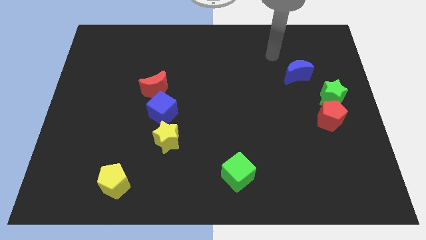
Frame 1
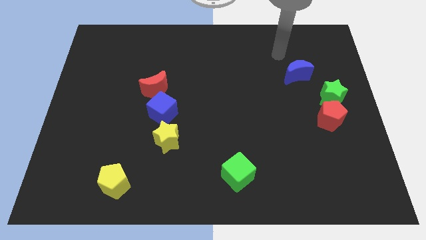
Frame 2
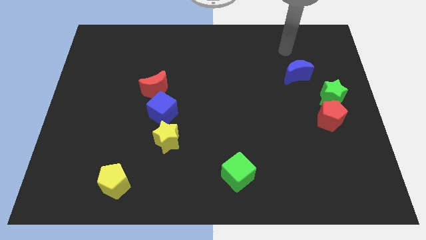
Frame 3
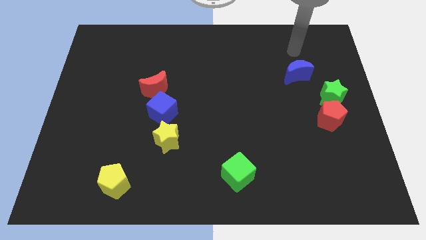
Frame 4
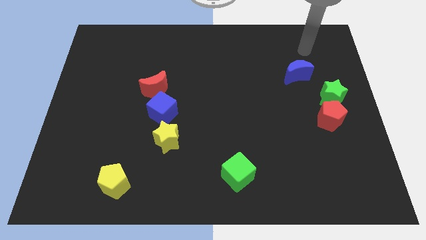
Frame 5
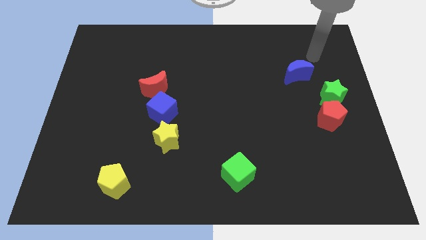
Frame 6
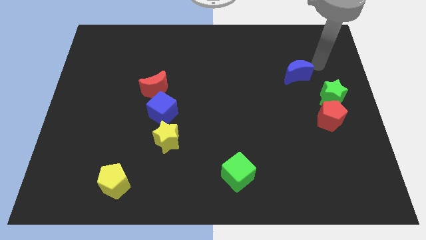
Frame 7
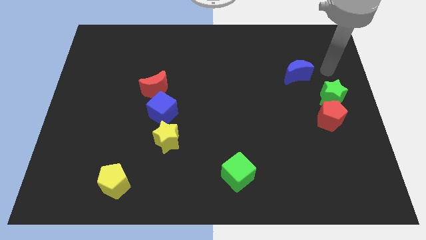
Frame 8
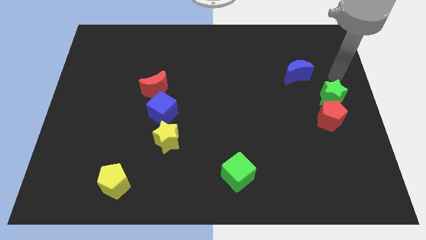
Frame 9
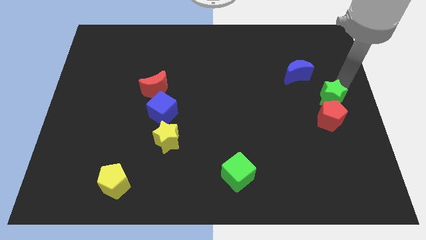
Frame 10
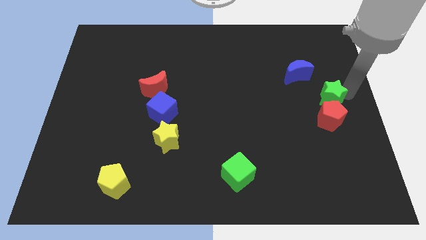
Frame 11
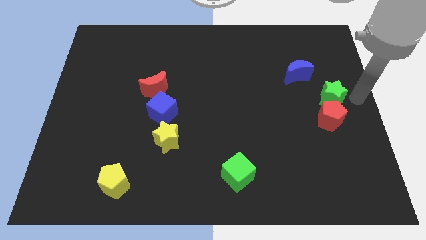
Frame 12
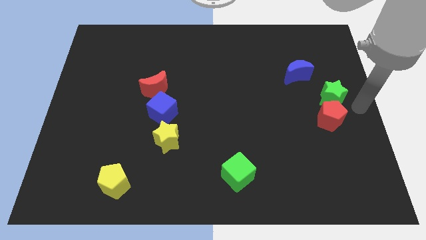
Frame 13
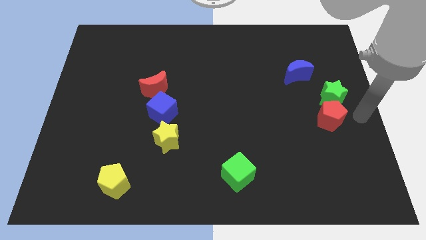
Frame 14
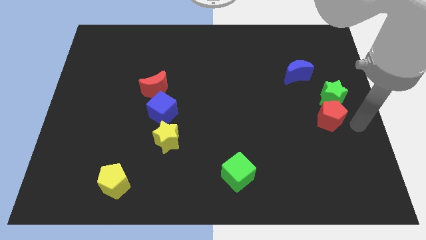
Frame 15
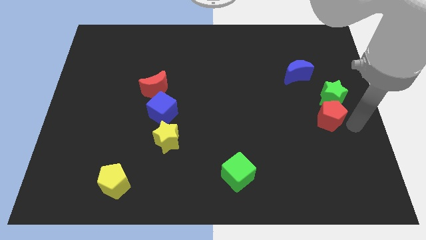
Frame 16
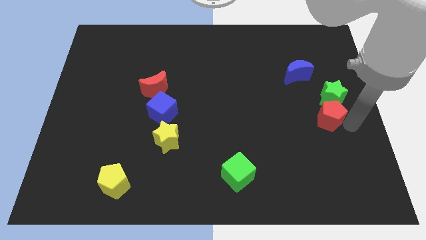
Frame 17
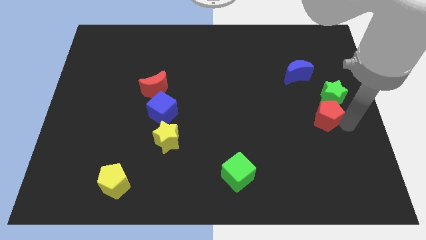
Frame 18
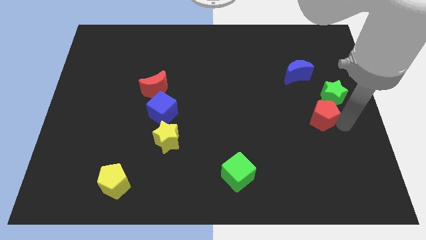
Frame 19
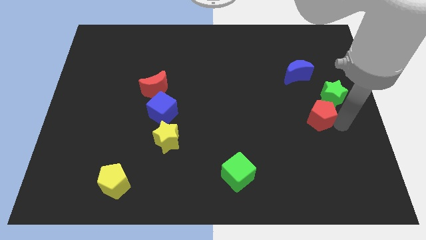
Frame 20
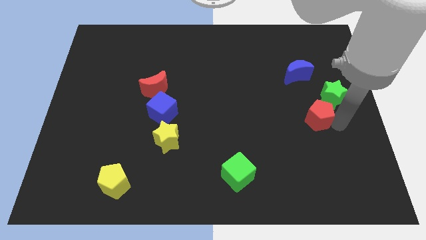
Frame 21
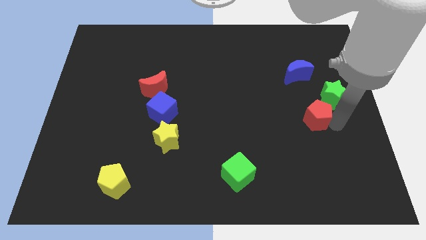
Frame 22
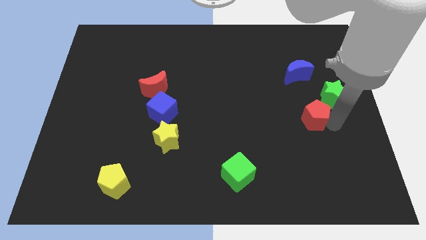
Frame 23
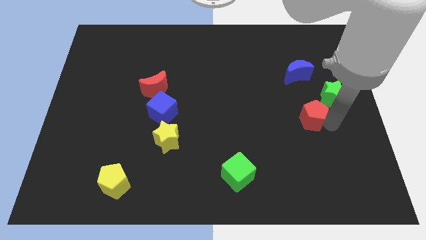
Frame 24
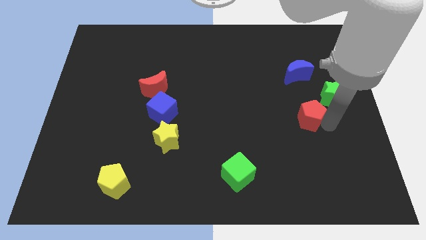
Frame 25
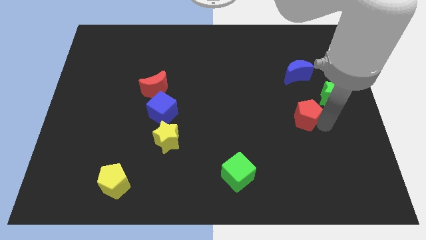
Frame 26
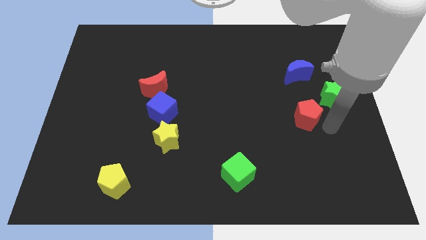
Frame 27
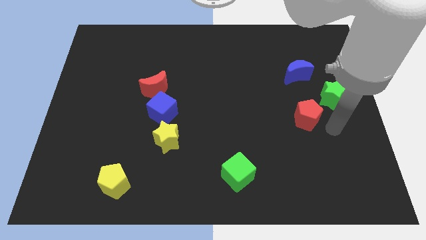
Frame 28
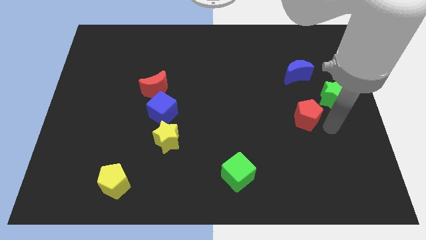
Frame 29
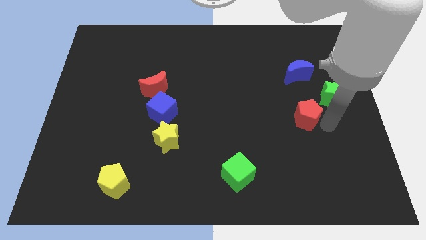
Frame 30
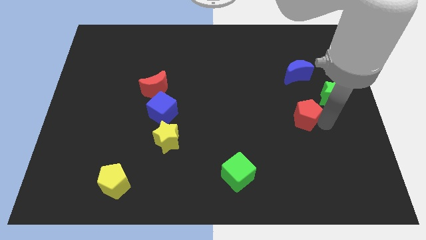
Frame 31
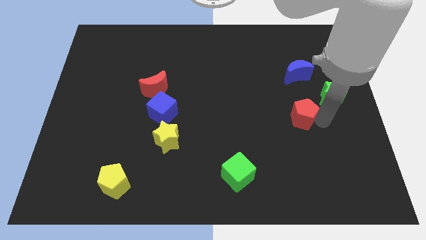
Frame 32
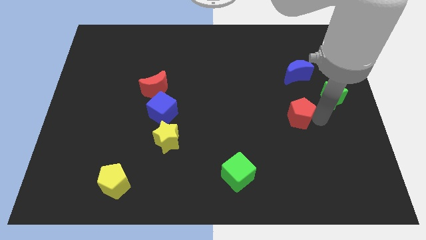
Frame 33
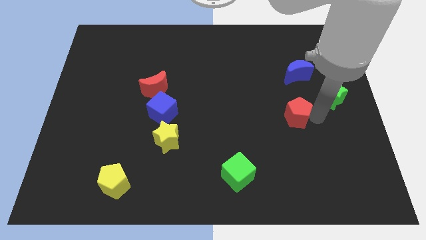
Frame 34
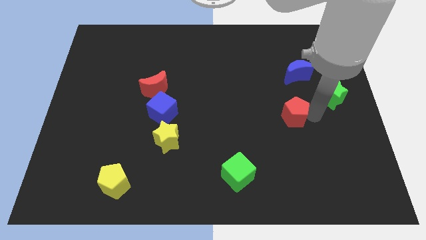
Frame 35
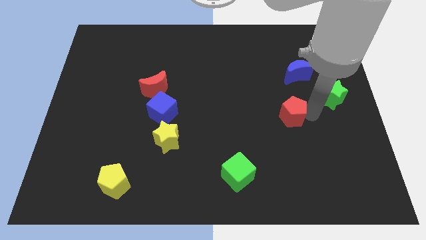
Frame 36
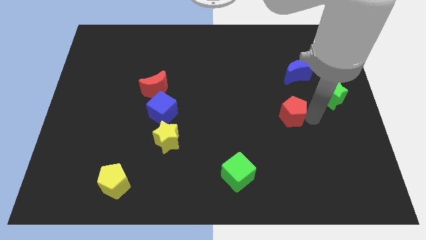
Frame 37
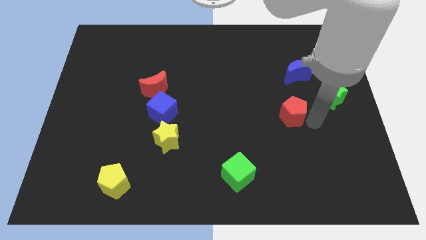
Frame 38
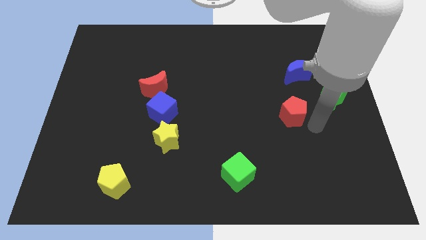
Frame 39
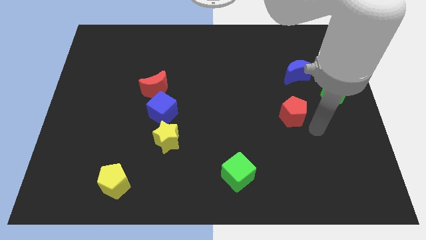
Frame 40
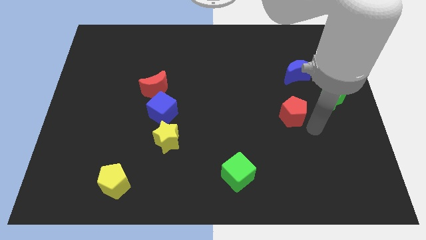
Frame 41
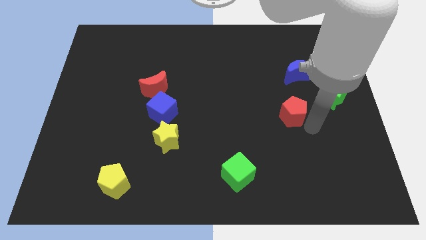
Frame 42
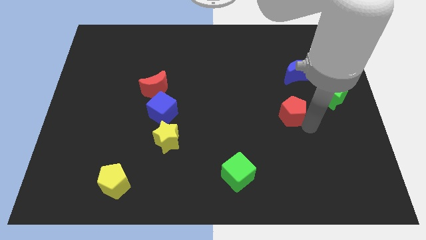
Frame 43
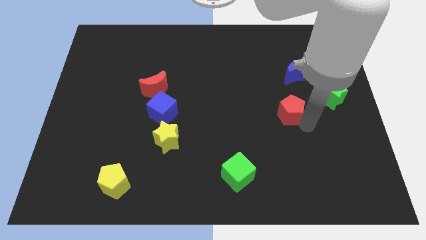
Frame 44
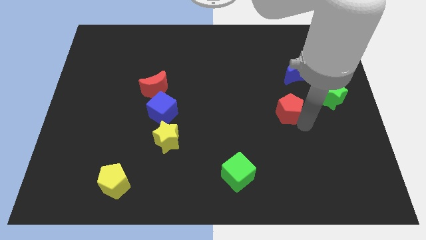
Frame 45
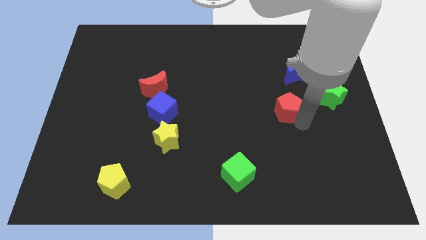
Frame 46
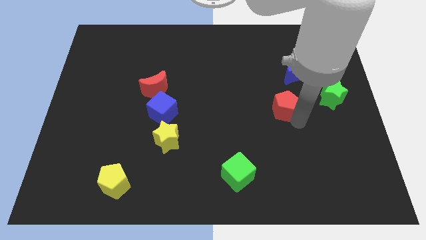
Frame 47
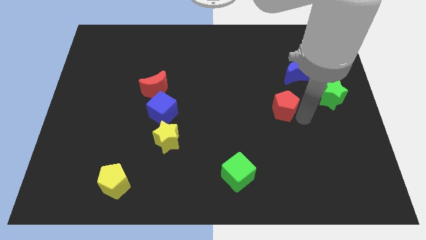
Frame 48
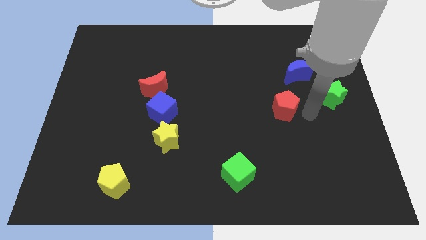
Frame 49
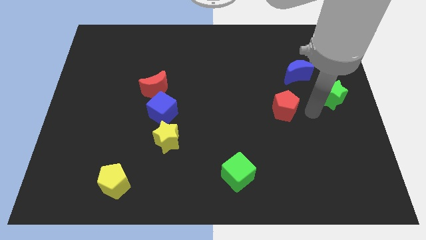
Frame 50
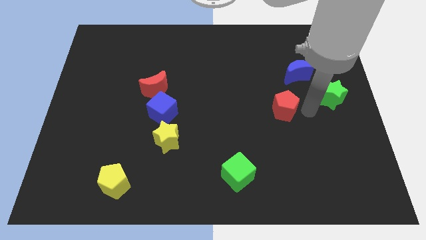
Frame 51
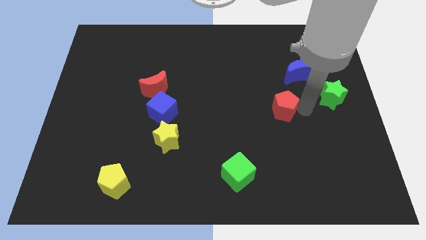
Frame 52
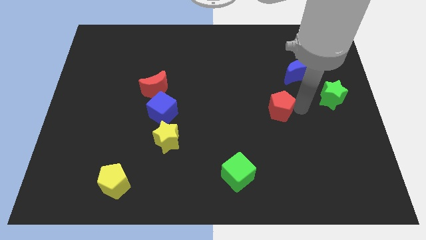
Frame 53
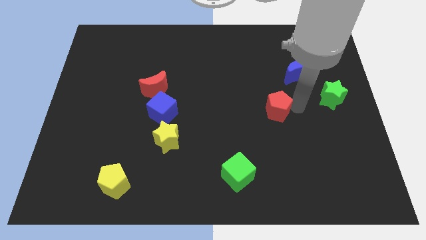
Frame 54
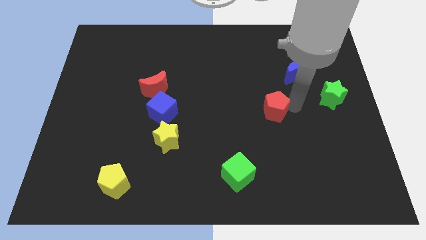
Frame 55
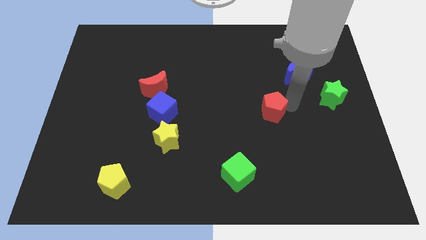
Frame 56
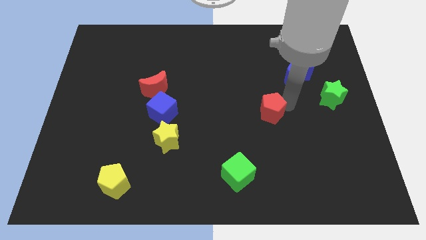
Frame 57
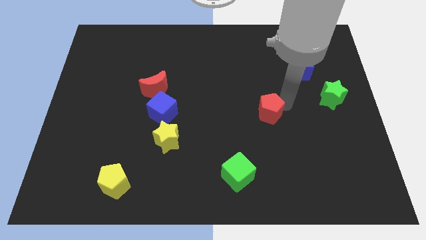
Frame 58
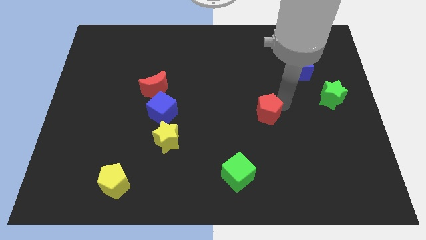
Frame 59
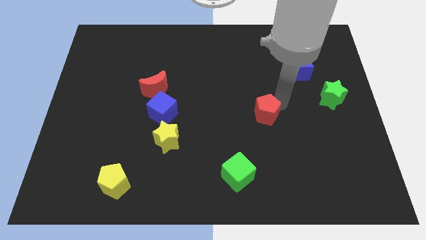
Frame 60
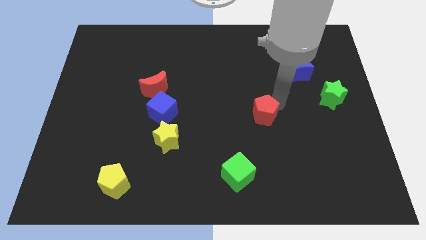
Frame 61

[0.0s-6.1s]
move the red pentagon to the middle of the board
